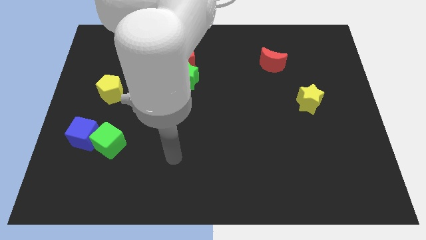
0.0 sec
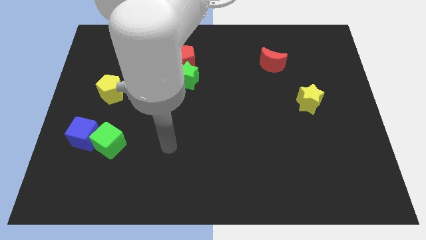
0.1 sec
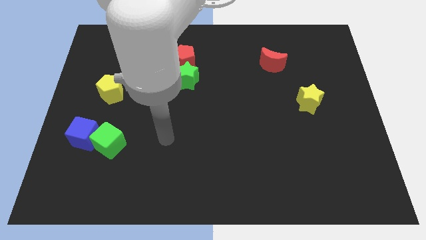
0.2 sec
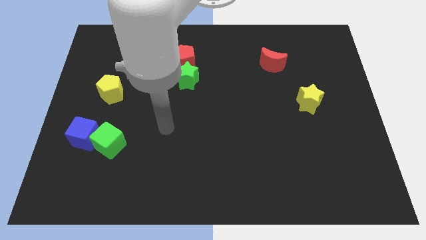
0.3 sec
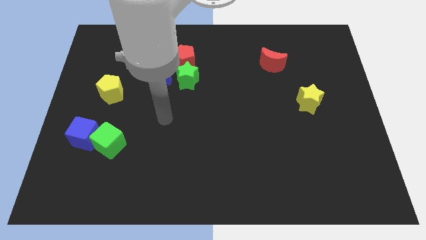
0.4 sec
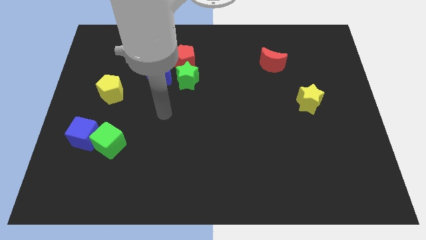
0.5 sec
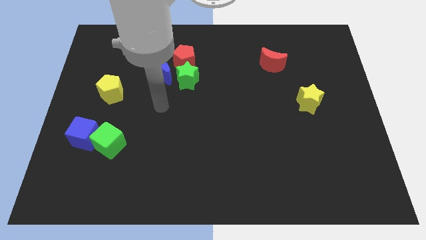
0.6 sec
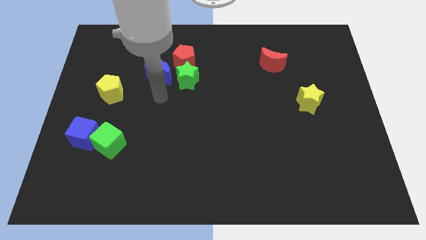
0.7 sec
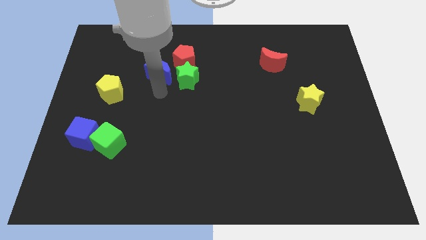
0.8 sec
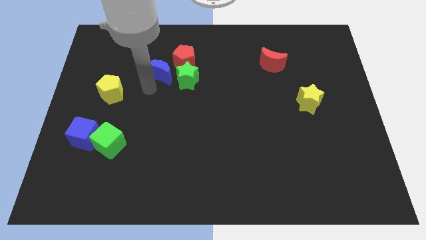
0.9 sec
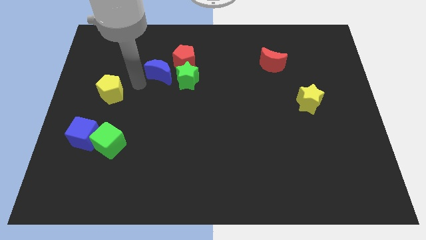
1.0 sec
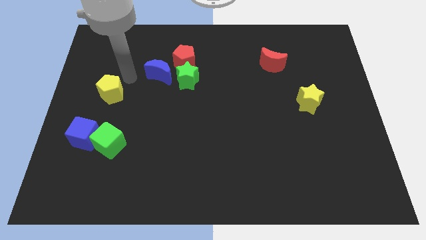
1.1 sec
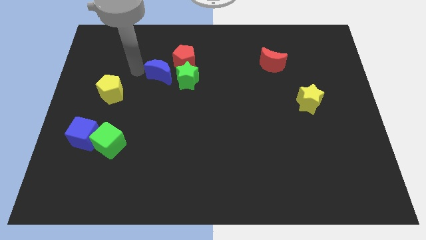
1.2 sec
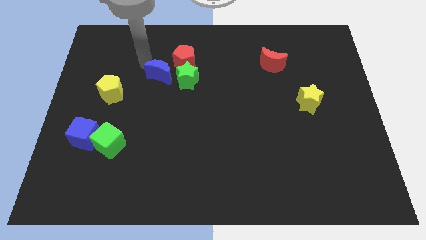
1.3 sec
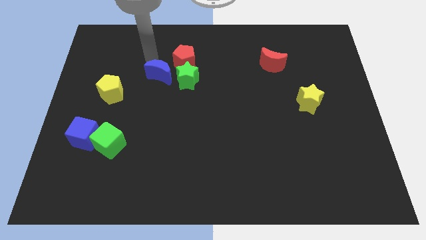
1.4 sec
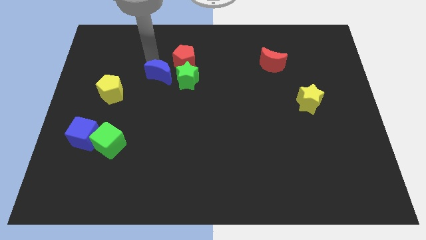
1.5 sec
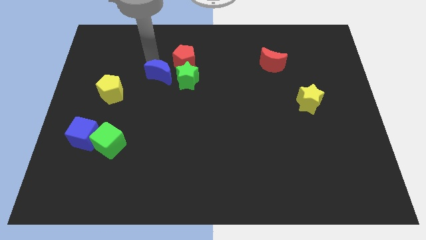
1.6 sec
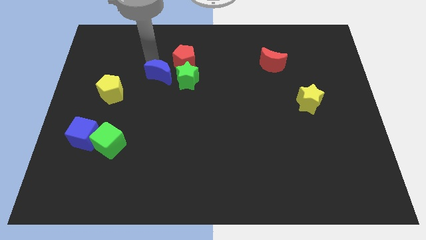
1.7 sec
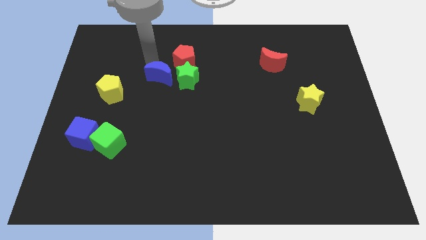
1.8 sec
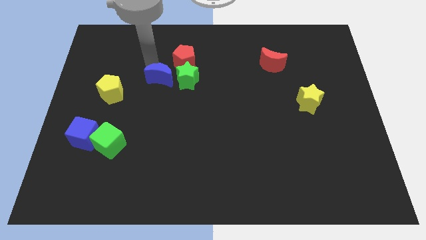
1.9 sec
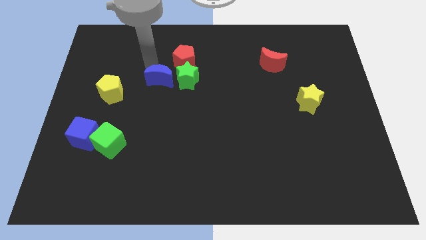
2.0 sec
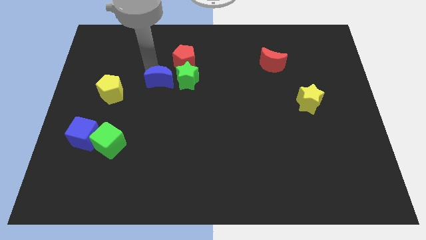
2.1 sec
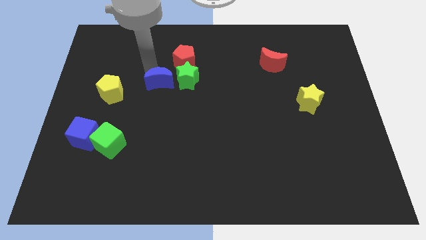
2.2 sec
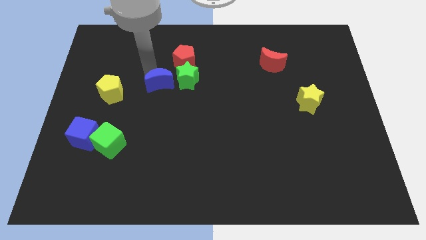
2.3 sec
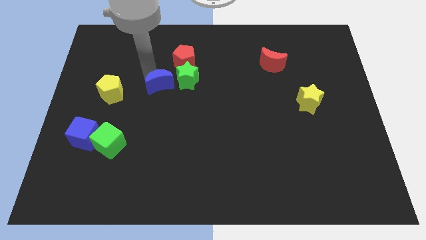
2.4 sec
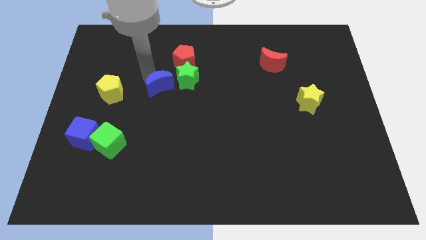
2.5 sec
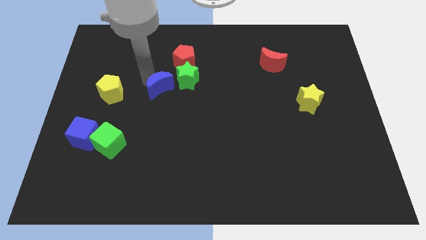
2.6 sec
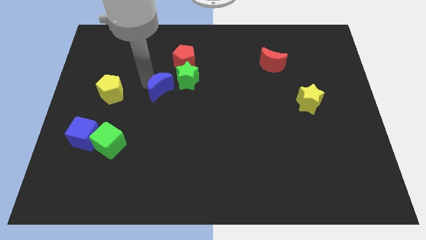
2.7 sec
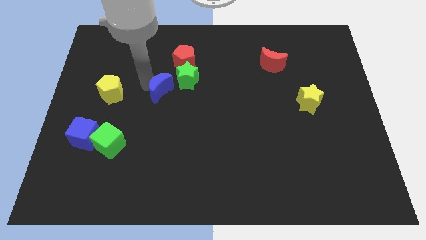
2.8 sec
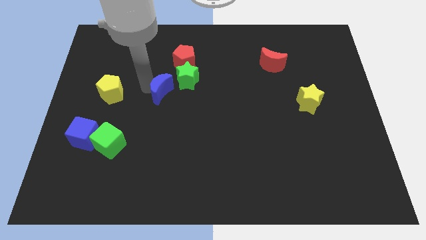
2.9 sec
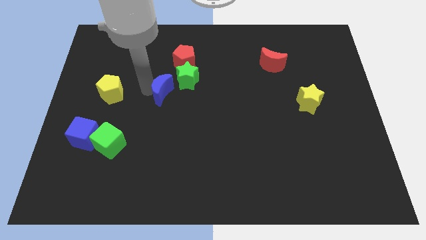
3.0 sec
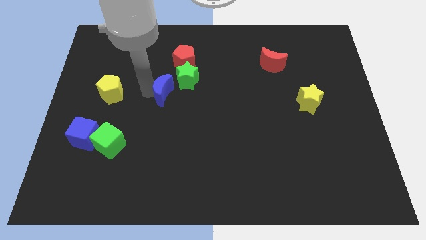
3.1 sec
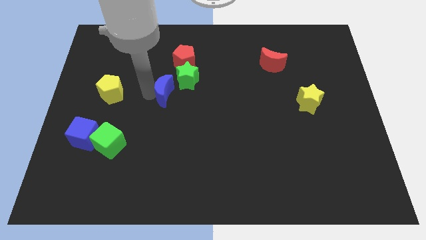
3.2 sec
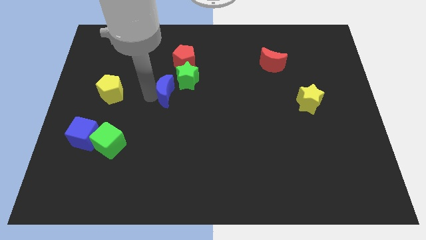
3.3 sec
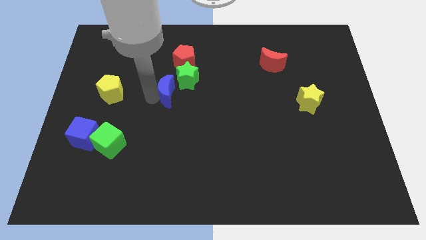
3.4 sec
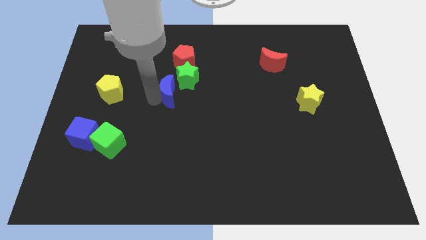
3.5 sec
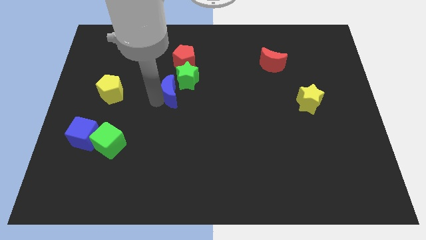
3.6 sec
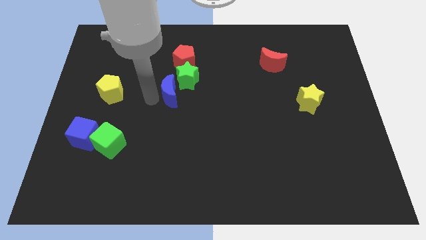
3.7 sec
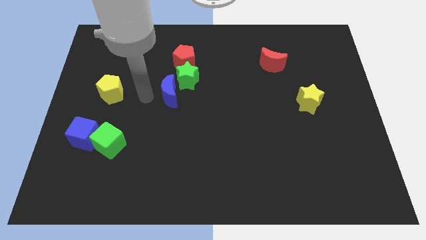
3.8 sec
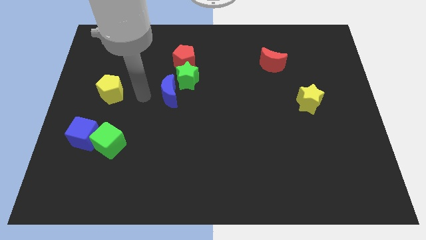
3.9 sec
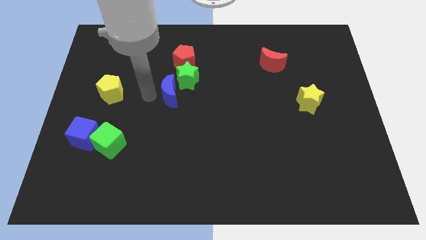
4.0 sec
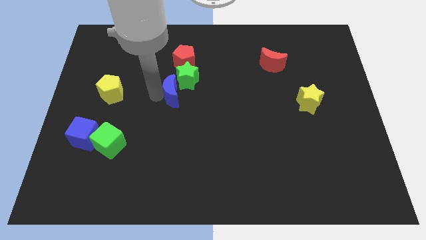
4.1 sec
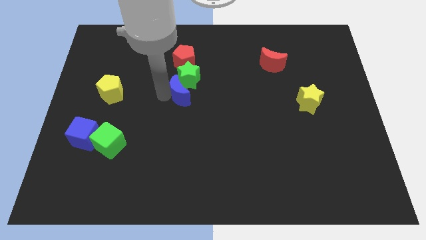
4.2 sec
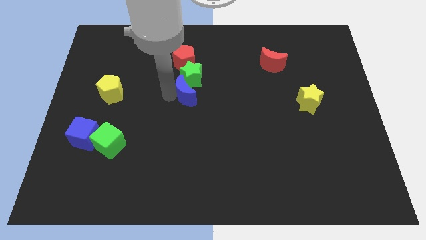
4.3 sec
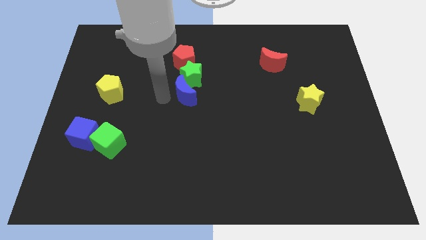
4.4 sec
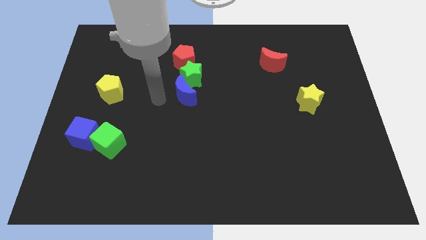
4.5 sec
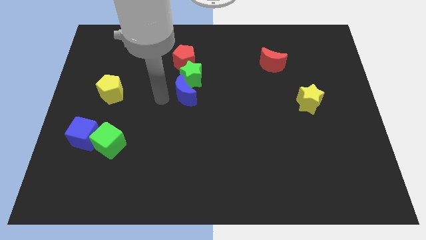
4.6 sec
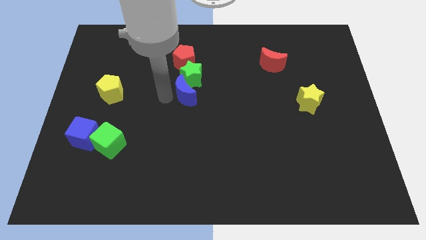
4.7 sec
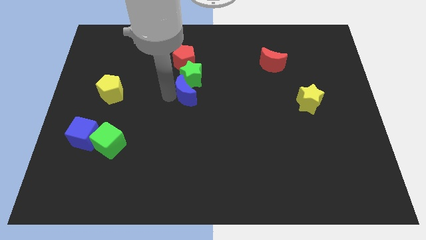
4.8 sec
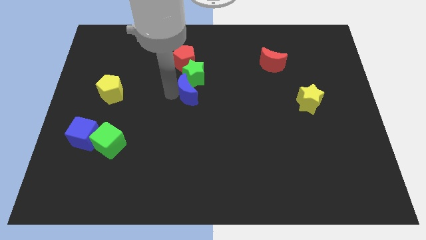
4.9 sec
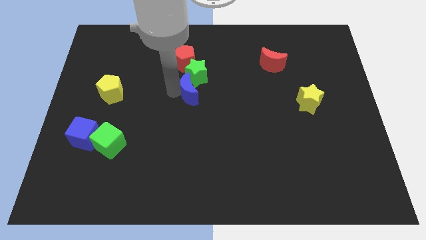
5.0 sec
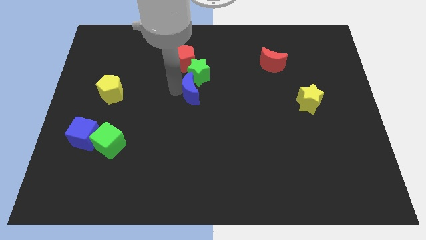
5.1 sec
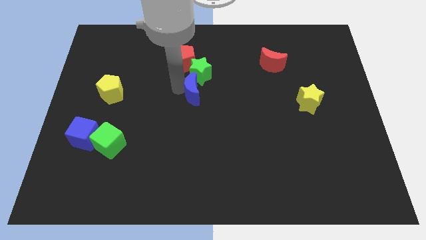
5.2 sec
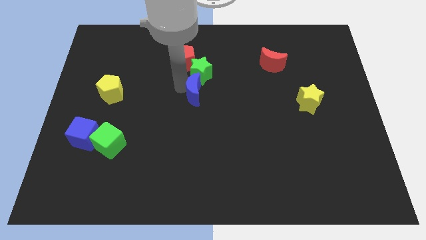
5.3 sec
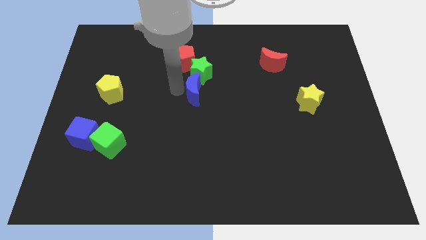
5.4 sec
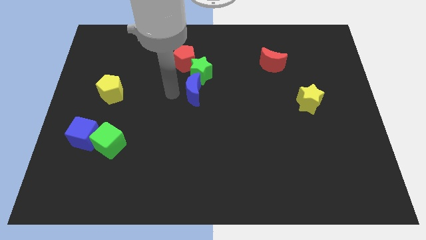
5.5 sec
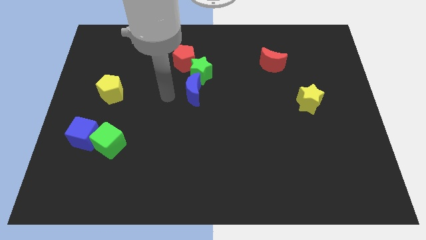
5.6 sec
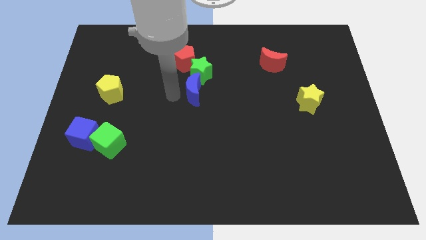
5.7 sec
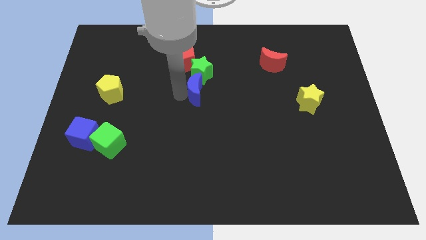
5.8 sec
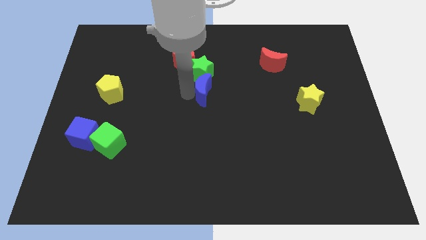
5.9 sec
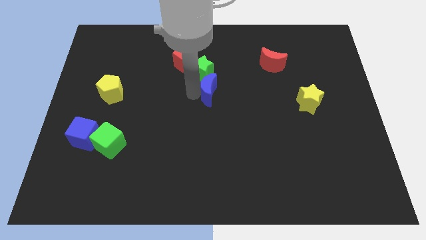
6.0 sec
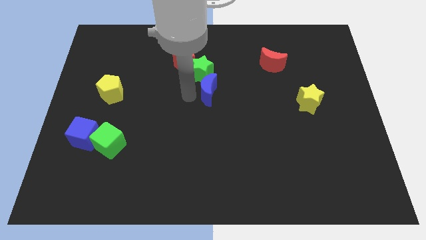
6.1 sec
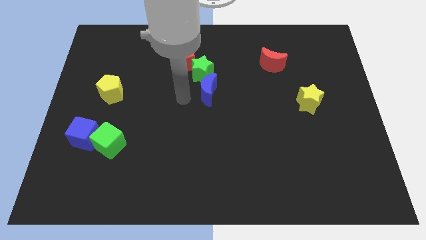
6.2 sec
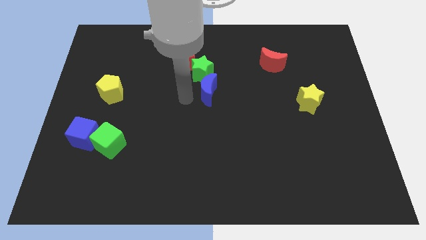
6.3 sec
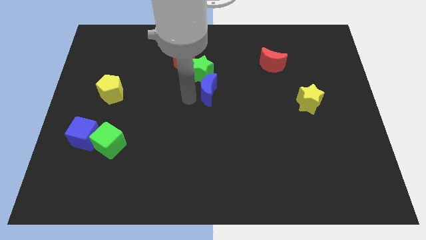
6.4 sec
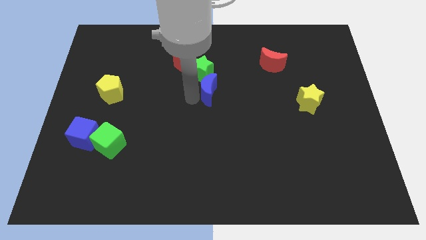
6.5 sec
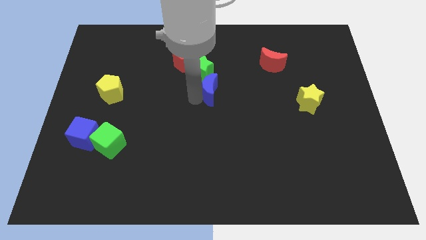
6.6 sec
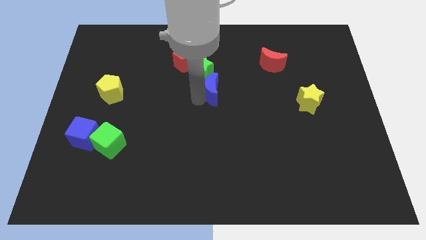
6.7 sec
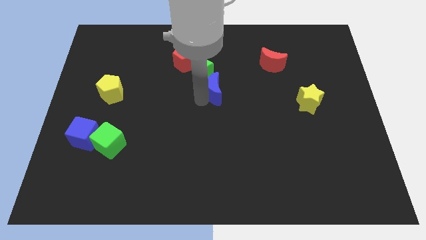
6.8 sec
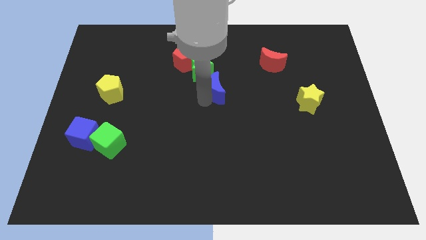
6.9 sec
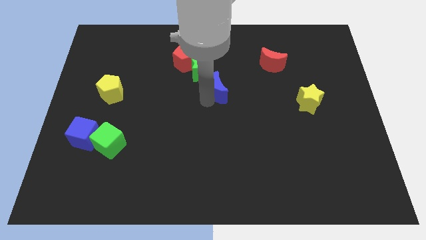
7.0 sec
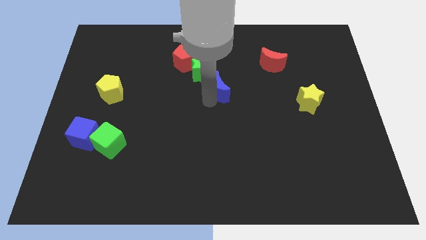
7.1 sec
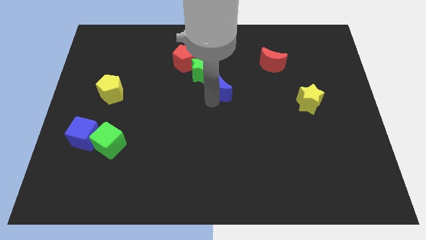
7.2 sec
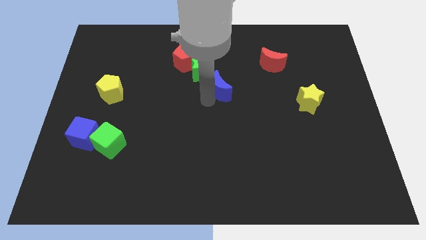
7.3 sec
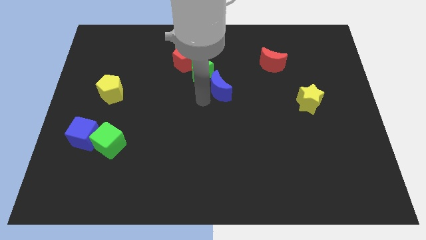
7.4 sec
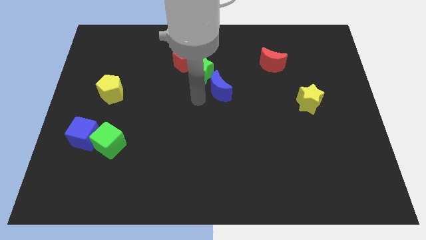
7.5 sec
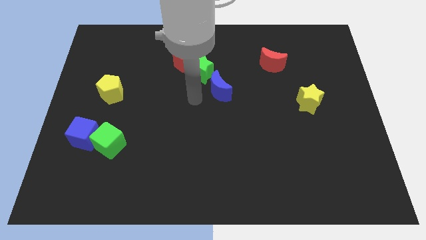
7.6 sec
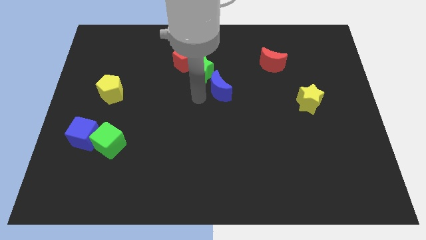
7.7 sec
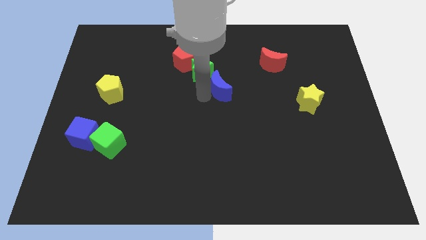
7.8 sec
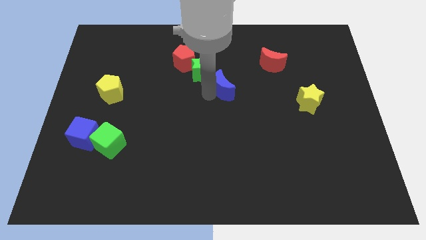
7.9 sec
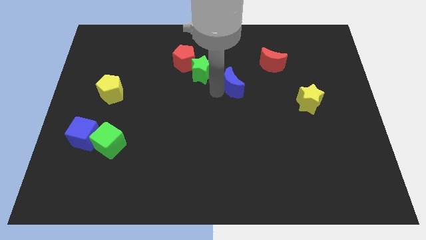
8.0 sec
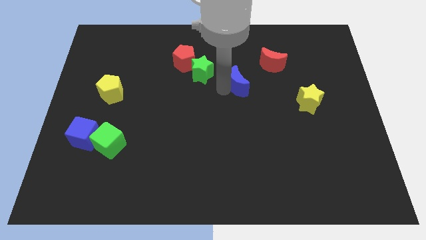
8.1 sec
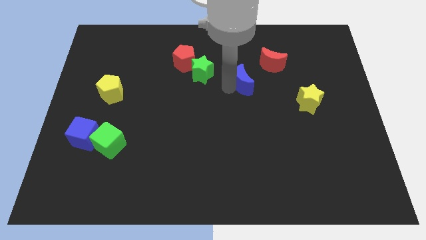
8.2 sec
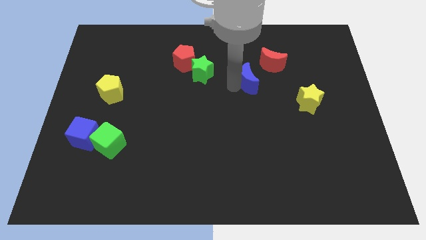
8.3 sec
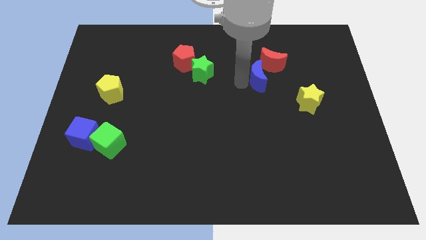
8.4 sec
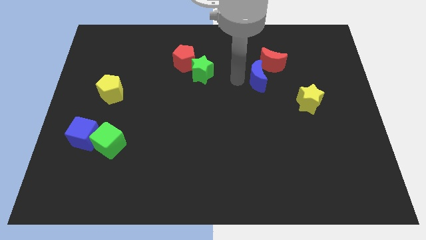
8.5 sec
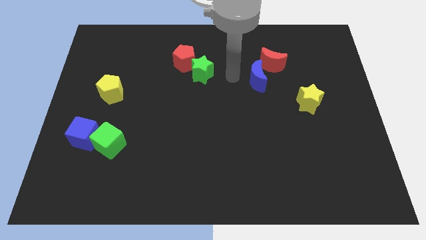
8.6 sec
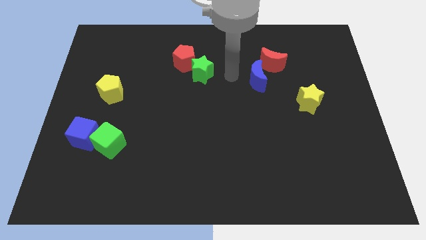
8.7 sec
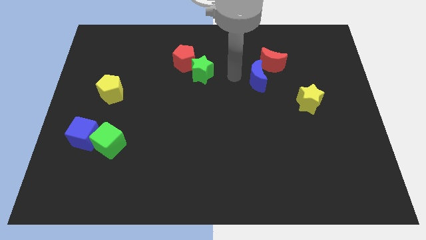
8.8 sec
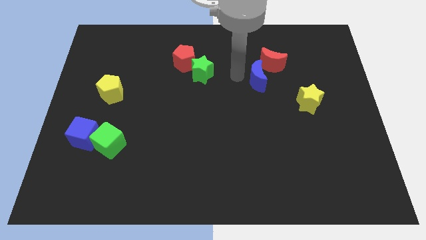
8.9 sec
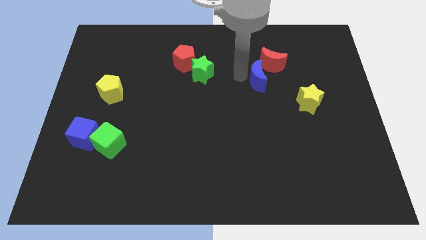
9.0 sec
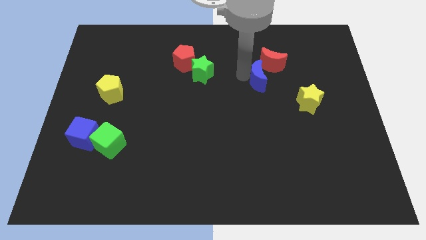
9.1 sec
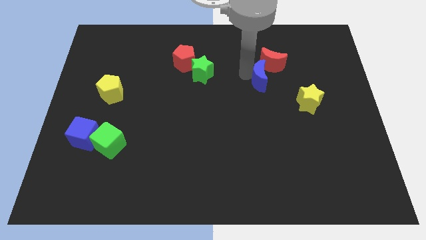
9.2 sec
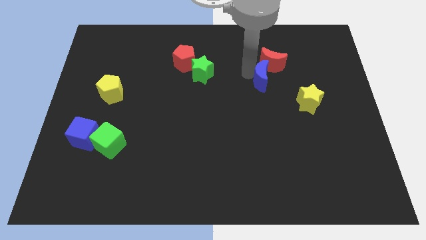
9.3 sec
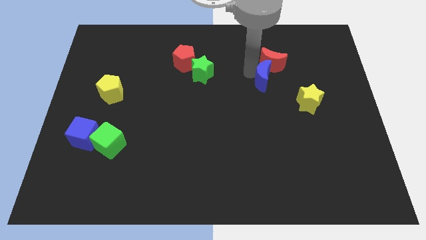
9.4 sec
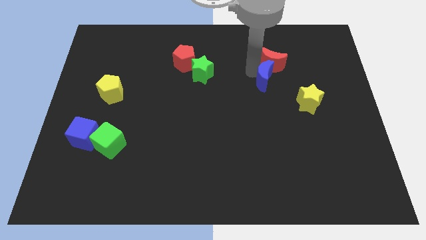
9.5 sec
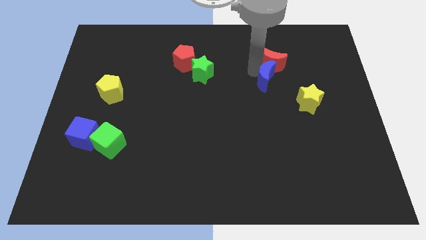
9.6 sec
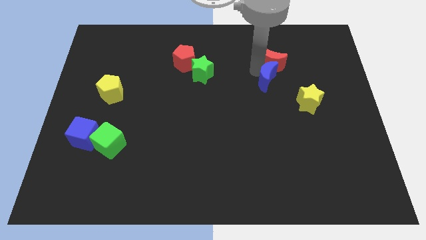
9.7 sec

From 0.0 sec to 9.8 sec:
move the blue moon to the bottom right side of the red moon
